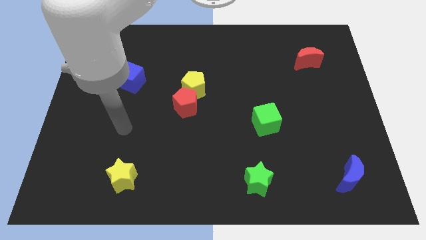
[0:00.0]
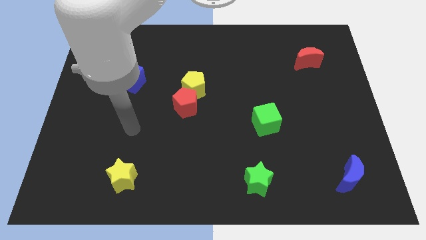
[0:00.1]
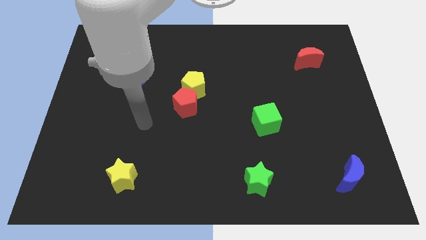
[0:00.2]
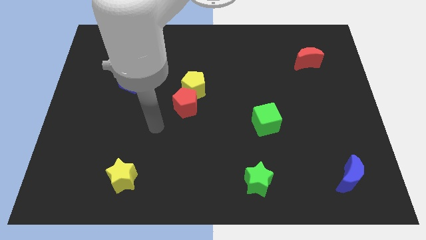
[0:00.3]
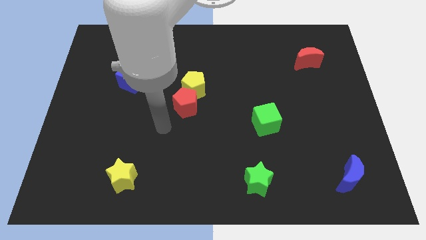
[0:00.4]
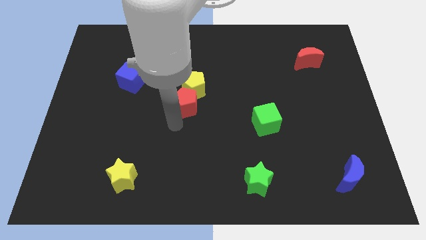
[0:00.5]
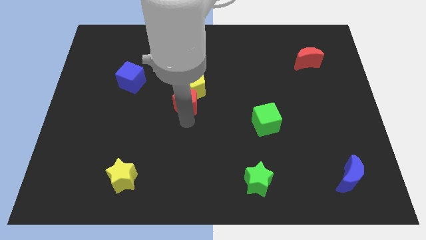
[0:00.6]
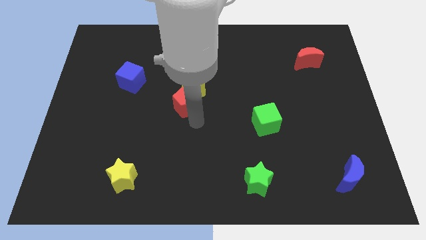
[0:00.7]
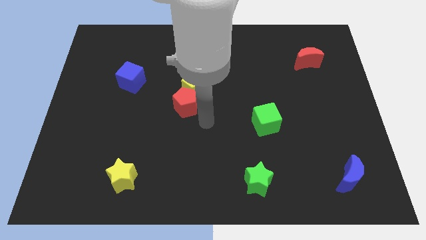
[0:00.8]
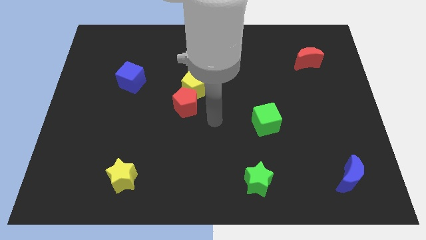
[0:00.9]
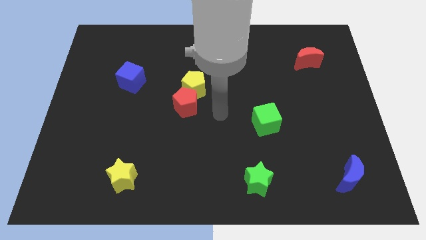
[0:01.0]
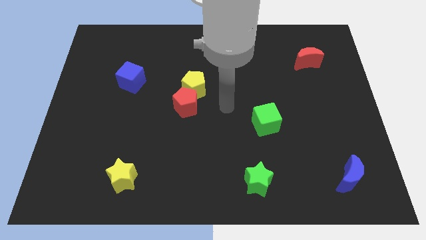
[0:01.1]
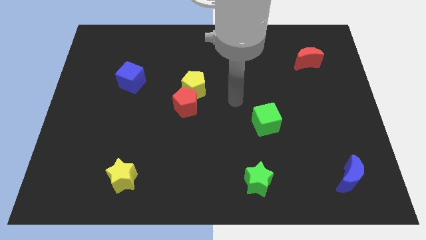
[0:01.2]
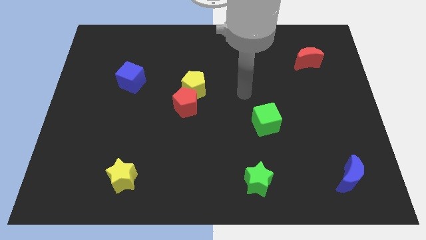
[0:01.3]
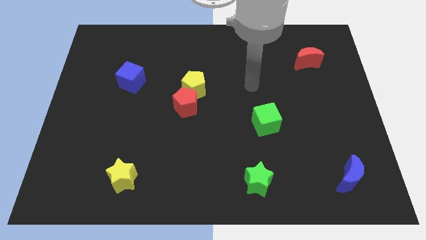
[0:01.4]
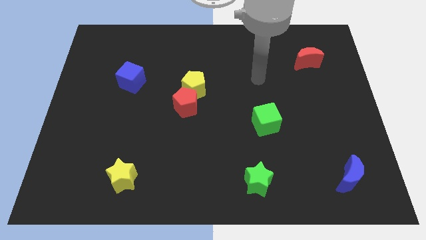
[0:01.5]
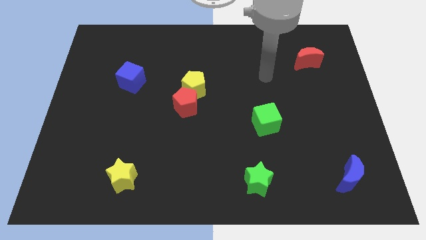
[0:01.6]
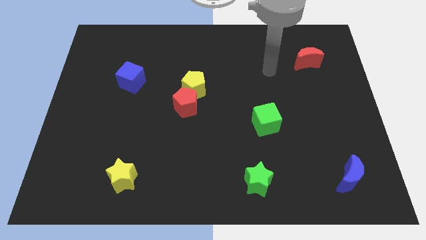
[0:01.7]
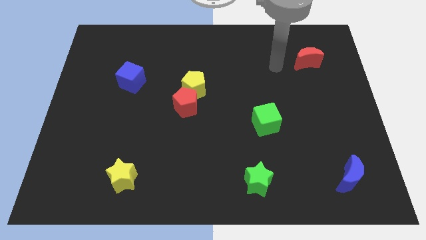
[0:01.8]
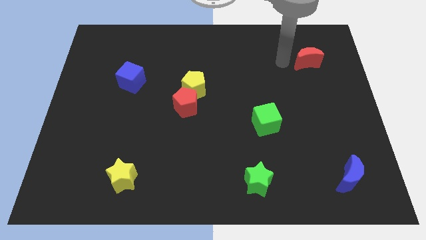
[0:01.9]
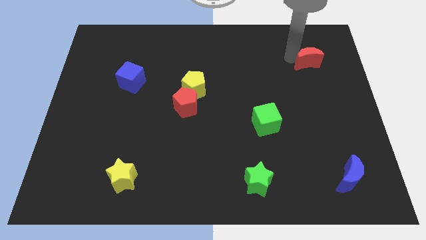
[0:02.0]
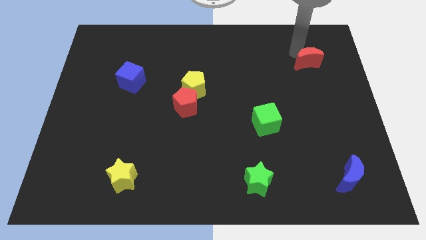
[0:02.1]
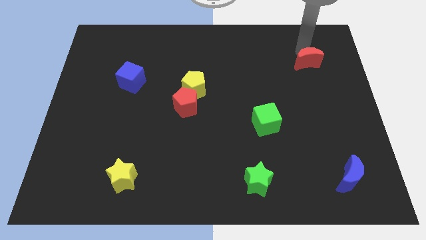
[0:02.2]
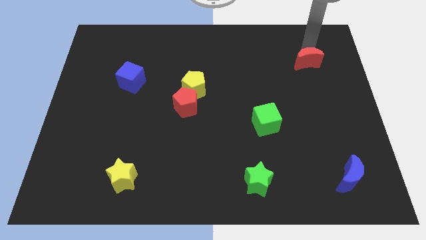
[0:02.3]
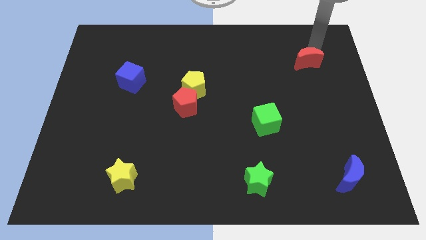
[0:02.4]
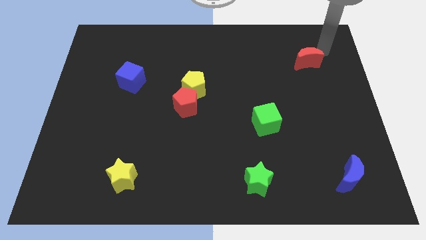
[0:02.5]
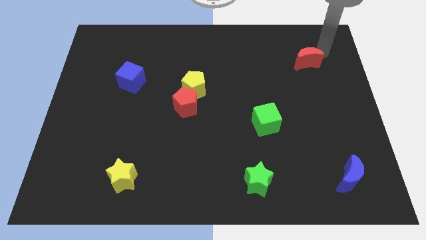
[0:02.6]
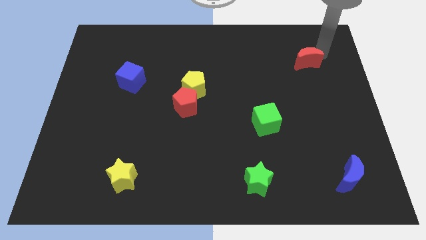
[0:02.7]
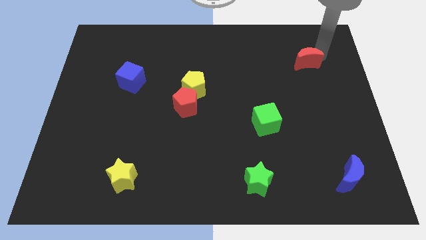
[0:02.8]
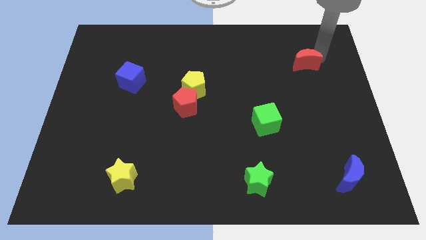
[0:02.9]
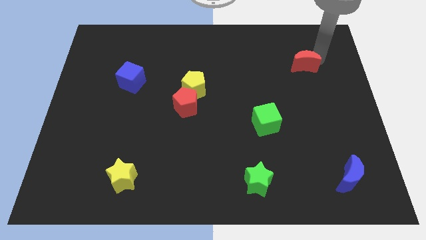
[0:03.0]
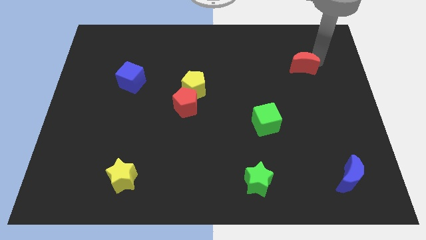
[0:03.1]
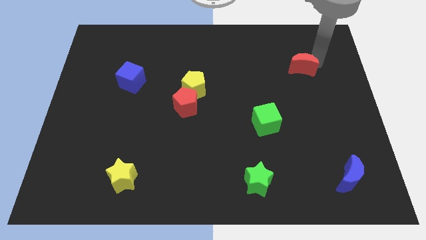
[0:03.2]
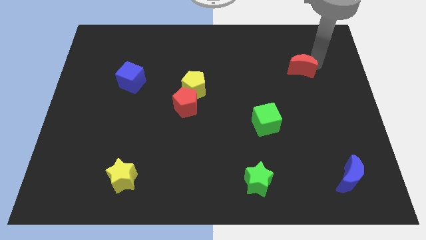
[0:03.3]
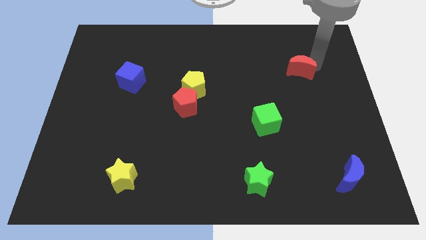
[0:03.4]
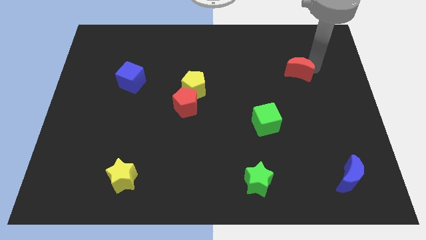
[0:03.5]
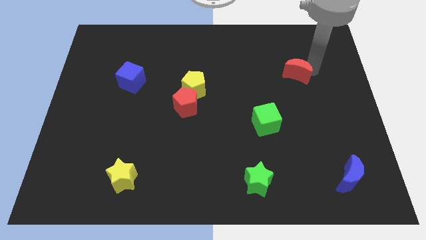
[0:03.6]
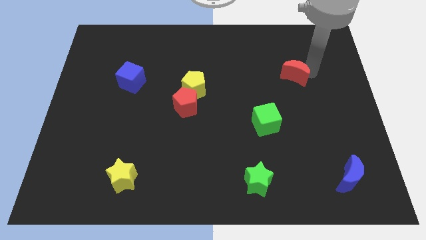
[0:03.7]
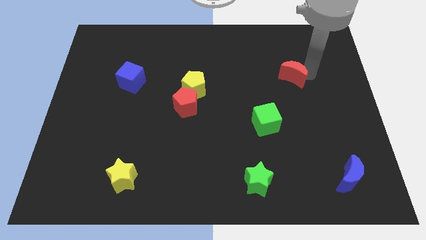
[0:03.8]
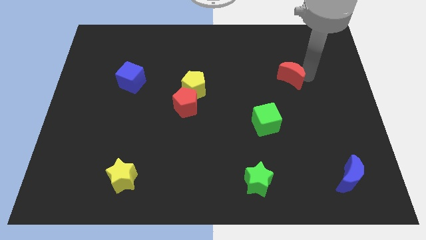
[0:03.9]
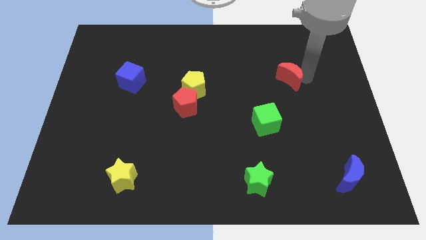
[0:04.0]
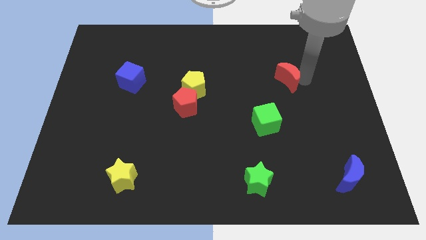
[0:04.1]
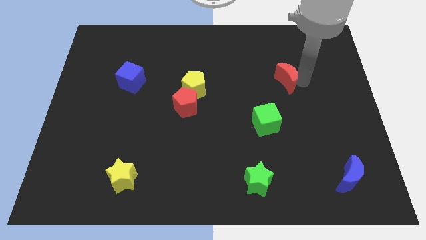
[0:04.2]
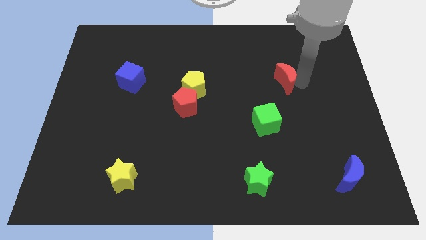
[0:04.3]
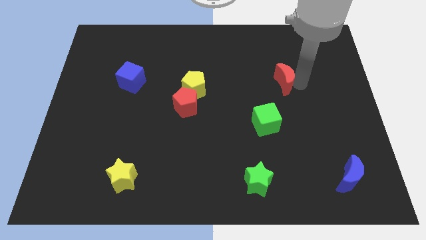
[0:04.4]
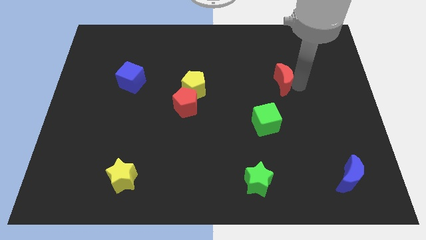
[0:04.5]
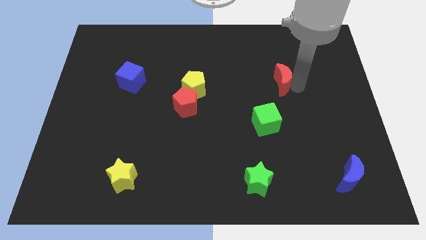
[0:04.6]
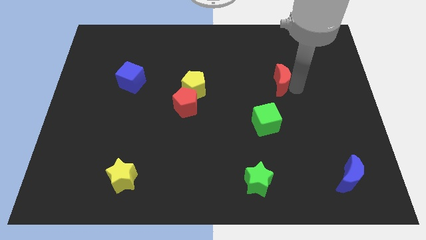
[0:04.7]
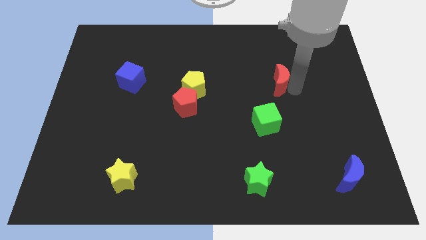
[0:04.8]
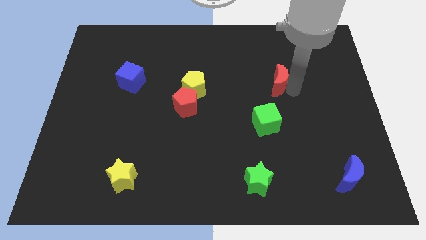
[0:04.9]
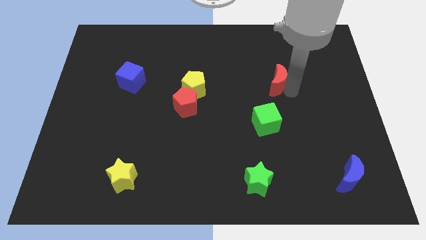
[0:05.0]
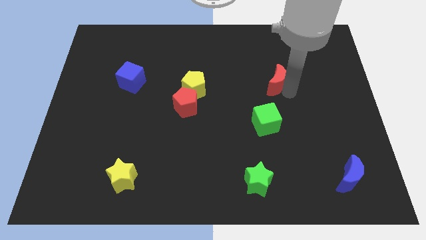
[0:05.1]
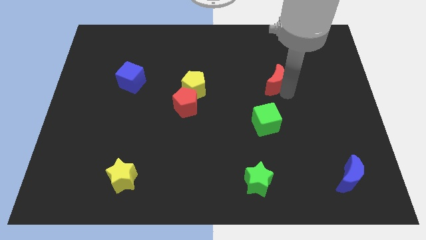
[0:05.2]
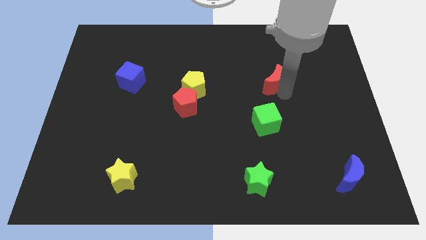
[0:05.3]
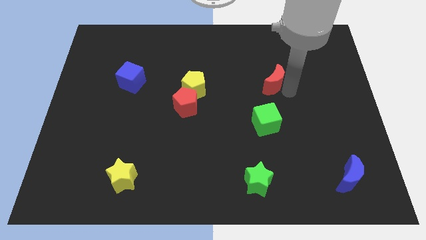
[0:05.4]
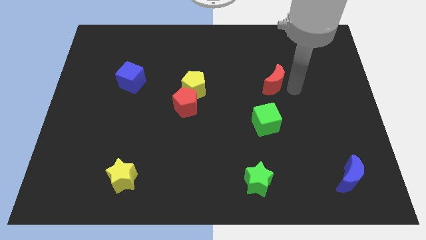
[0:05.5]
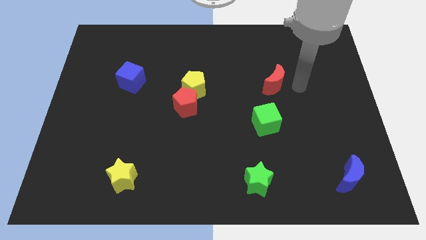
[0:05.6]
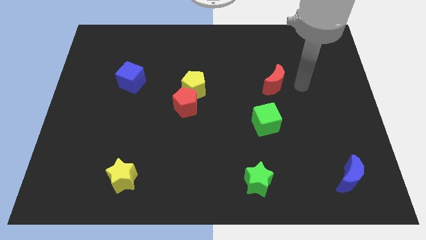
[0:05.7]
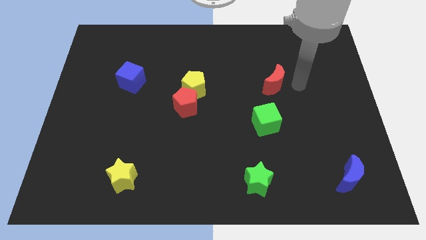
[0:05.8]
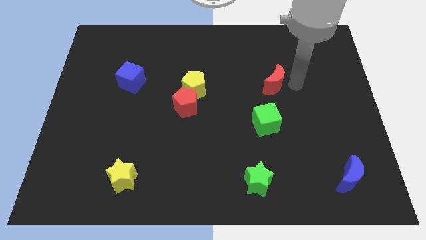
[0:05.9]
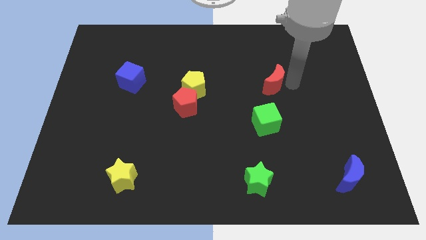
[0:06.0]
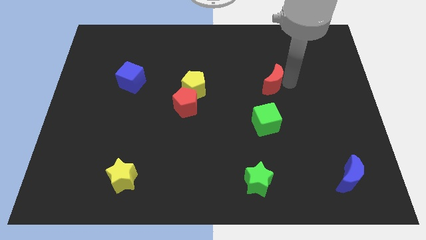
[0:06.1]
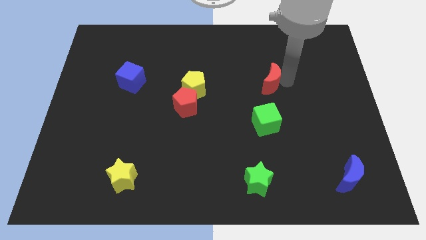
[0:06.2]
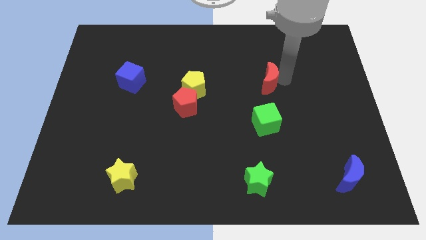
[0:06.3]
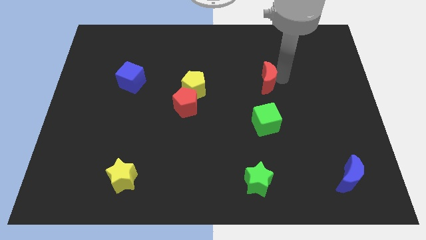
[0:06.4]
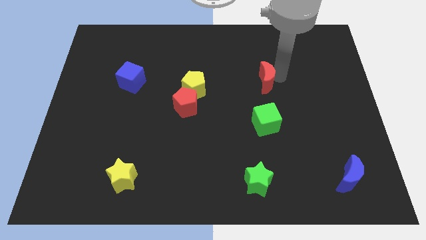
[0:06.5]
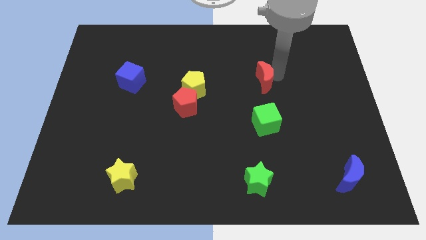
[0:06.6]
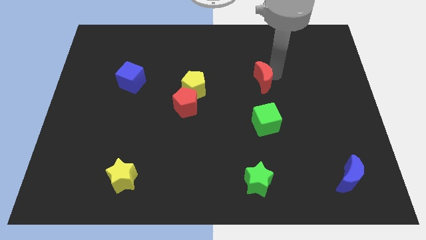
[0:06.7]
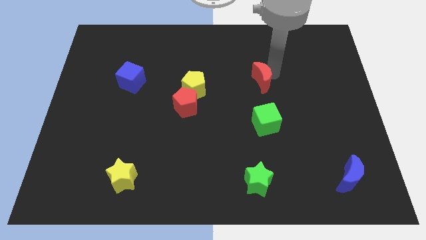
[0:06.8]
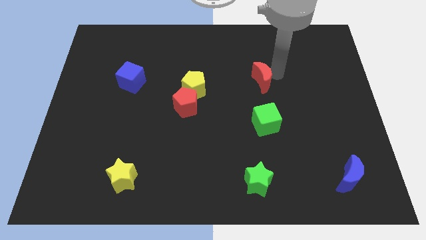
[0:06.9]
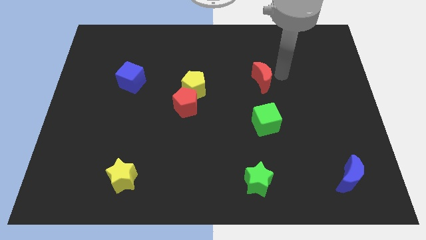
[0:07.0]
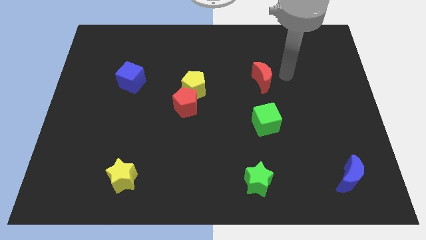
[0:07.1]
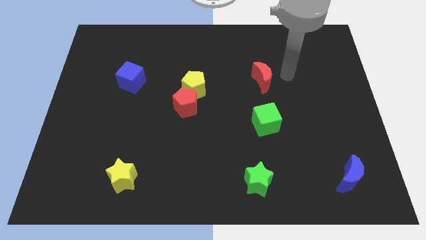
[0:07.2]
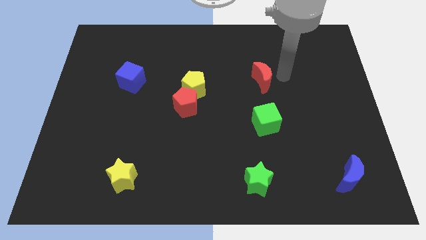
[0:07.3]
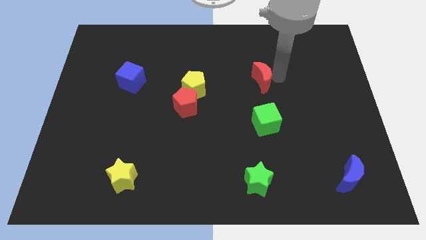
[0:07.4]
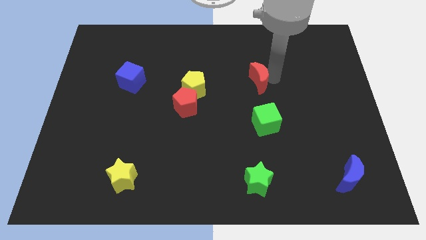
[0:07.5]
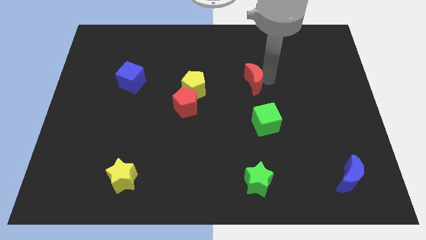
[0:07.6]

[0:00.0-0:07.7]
move the red moon to the middle of the board
